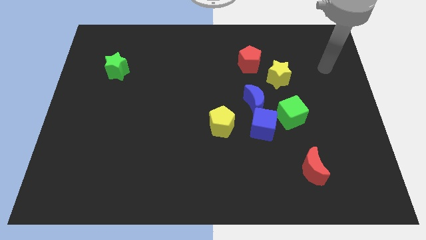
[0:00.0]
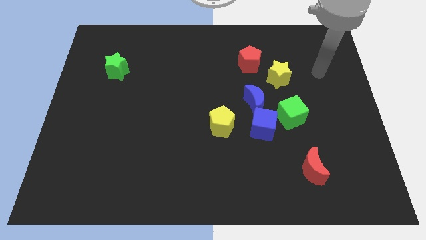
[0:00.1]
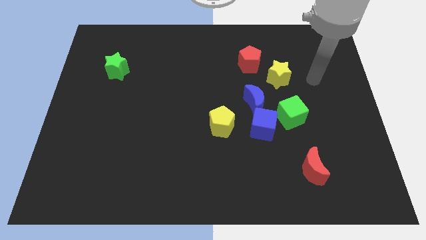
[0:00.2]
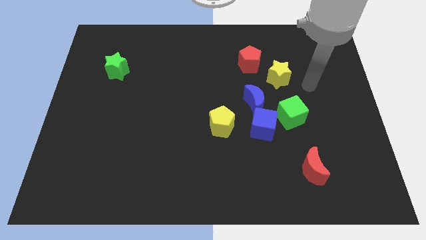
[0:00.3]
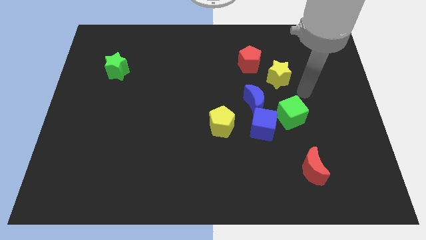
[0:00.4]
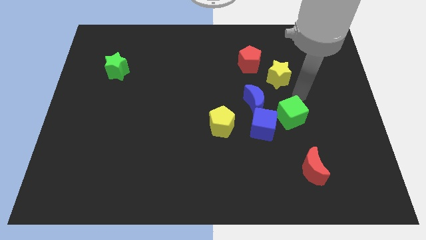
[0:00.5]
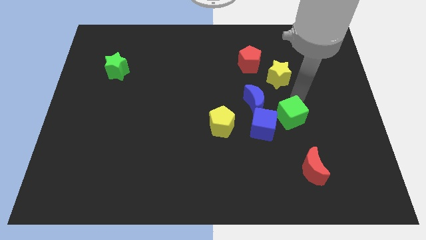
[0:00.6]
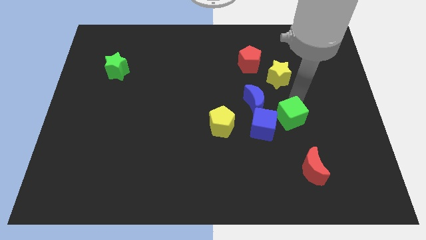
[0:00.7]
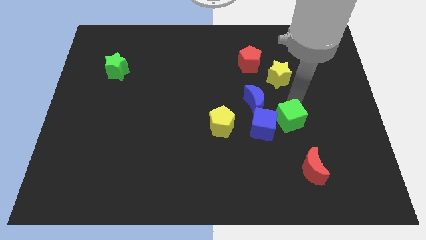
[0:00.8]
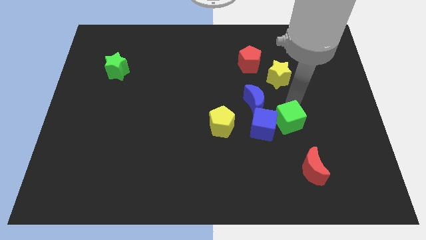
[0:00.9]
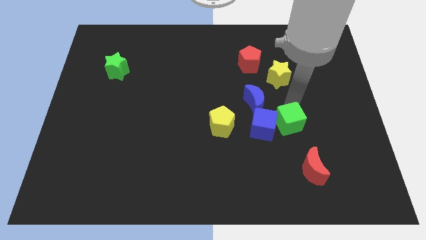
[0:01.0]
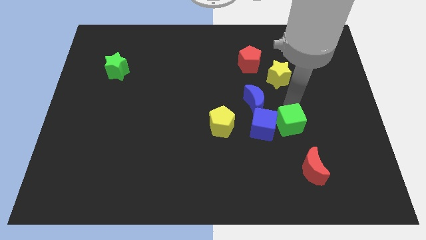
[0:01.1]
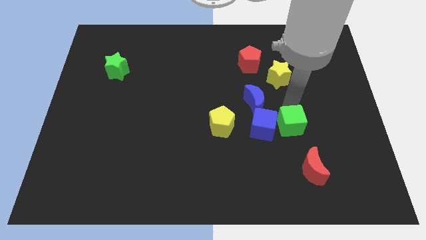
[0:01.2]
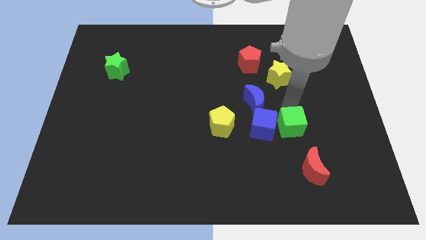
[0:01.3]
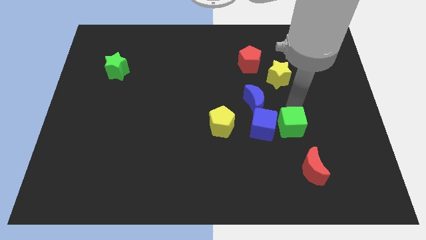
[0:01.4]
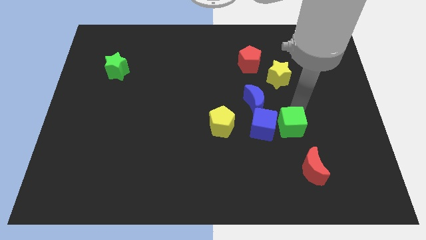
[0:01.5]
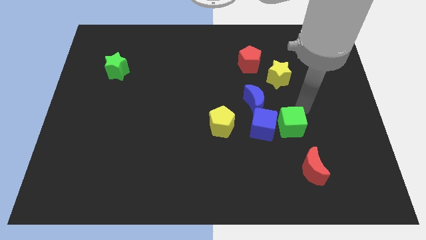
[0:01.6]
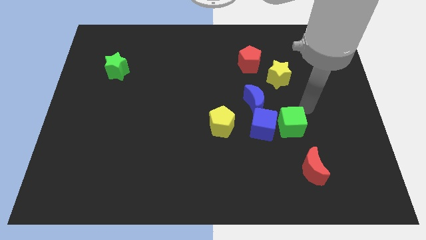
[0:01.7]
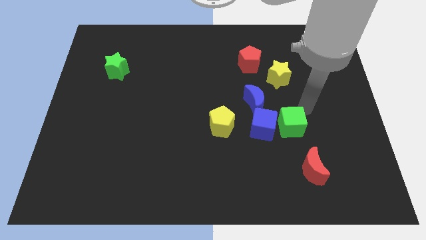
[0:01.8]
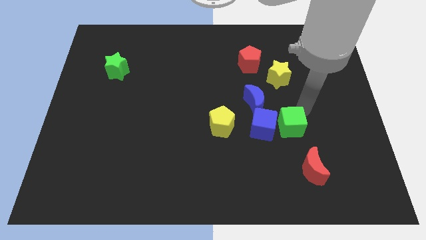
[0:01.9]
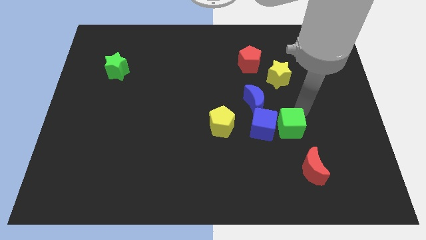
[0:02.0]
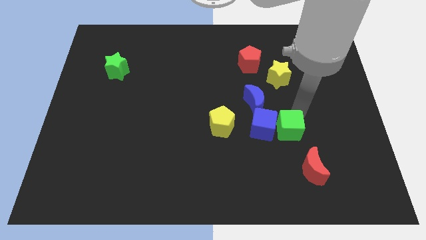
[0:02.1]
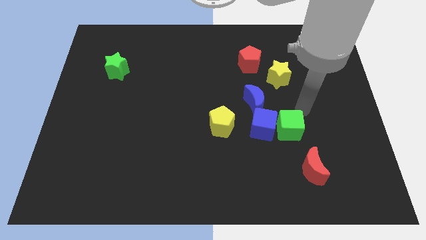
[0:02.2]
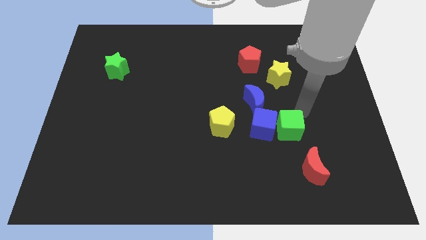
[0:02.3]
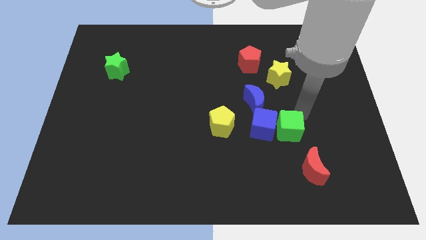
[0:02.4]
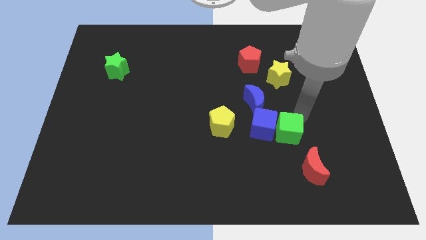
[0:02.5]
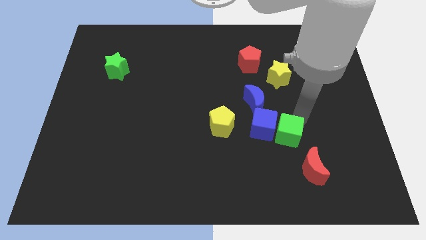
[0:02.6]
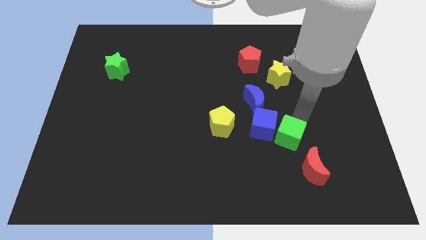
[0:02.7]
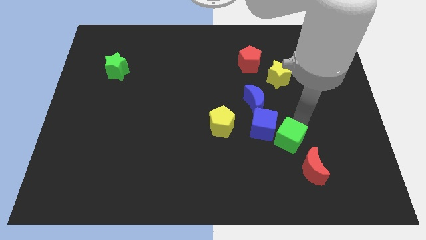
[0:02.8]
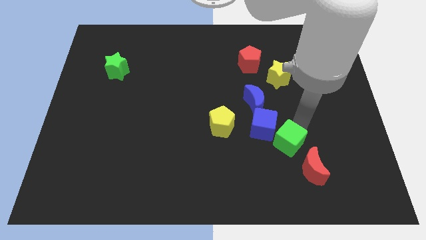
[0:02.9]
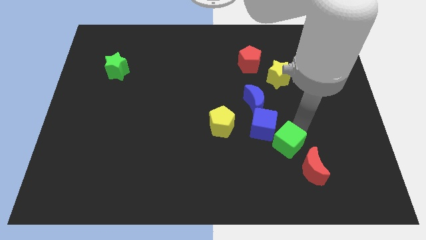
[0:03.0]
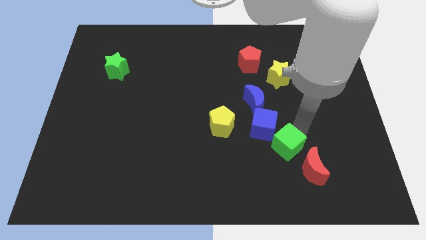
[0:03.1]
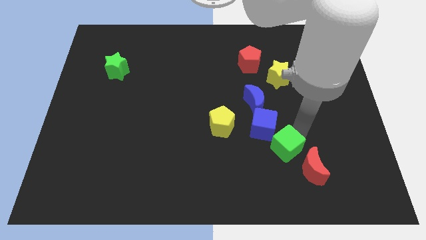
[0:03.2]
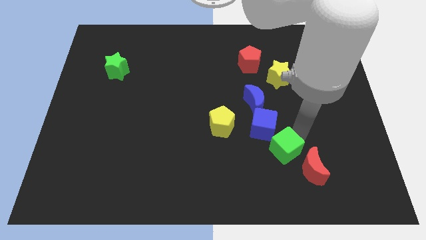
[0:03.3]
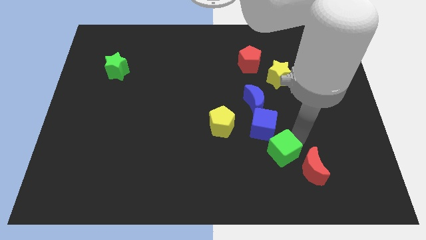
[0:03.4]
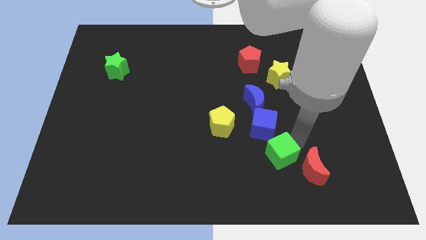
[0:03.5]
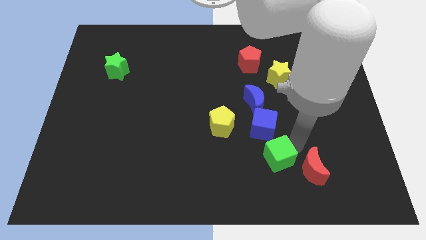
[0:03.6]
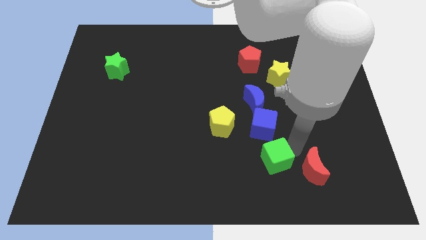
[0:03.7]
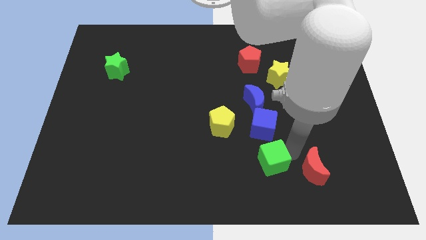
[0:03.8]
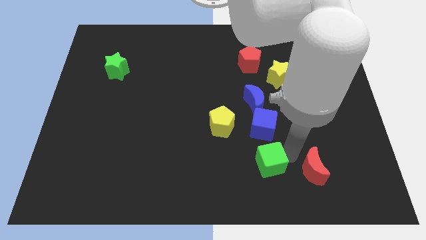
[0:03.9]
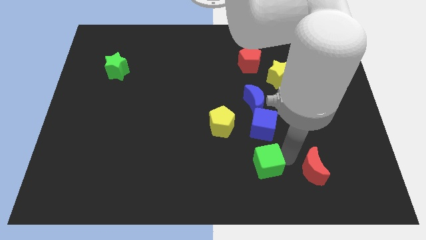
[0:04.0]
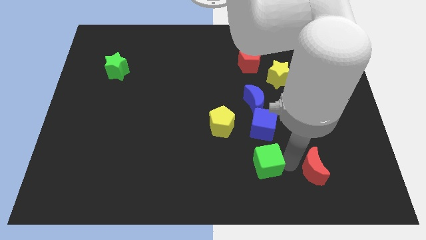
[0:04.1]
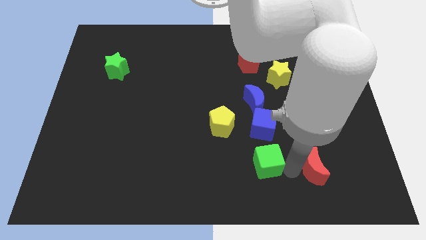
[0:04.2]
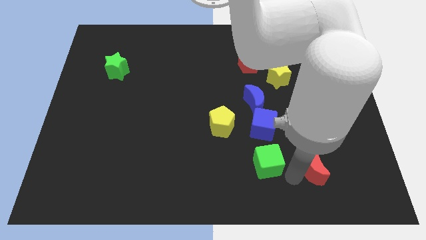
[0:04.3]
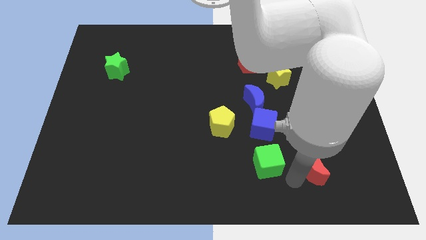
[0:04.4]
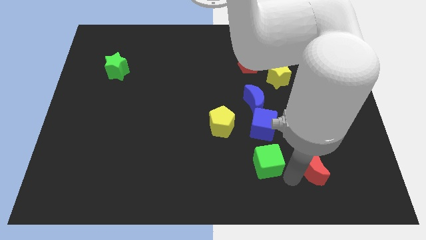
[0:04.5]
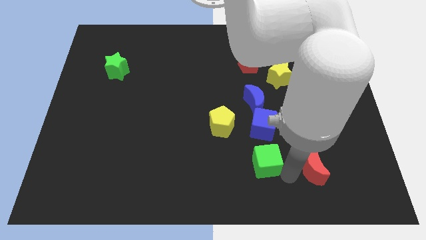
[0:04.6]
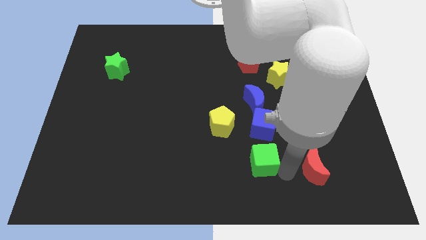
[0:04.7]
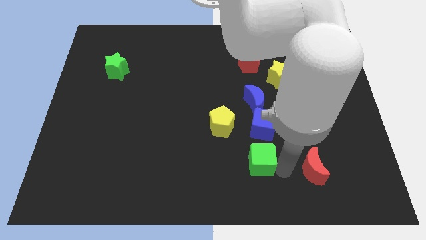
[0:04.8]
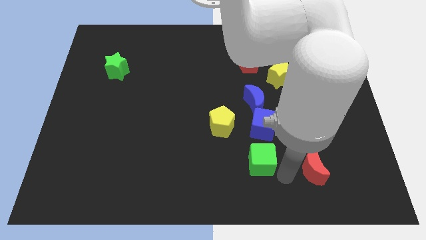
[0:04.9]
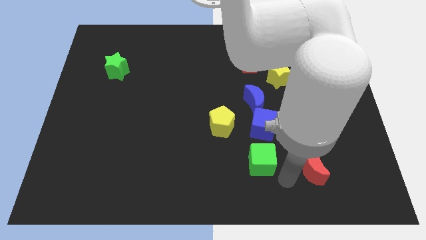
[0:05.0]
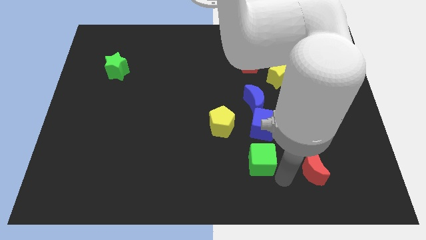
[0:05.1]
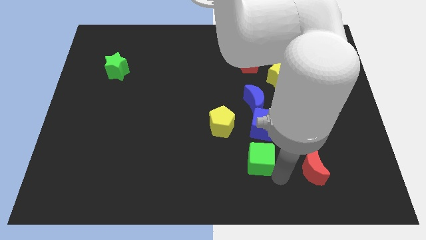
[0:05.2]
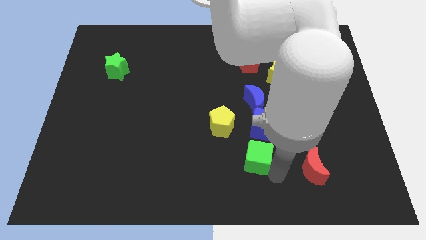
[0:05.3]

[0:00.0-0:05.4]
move the green cube to the bottom left side of the blue cube

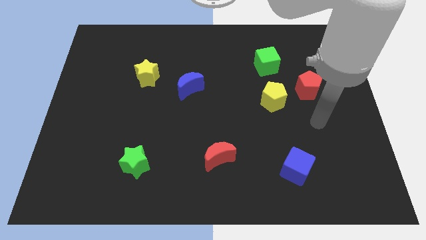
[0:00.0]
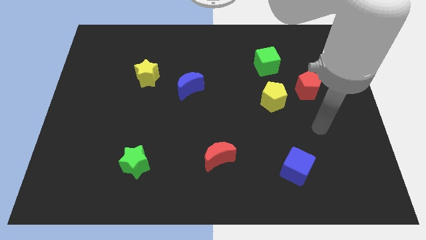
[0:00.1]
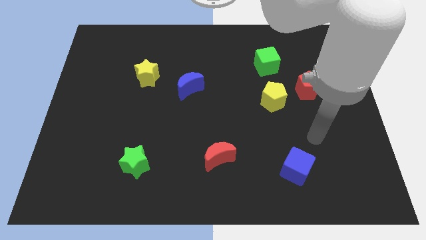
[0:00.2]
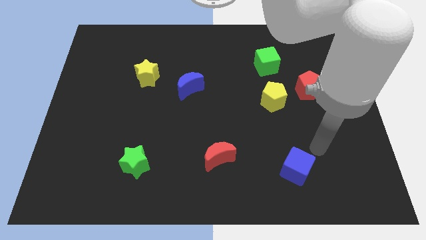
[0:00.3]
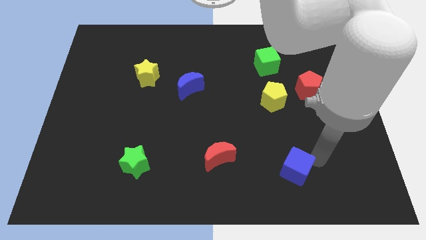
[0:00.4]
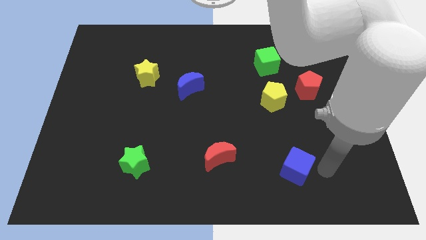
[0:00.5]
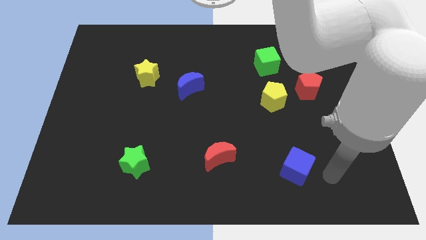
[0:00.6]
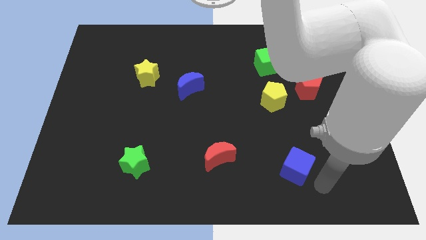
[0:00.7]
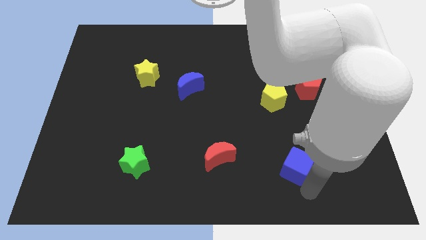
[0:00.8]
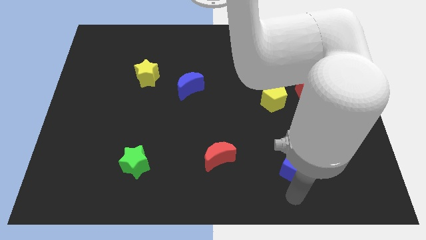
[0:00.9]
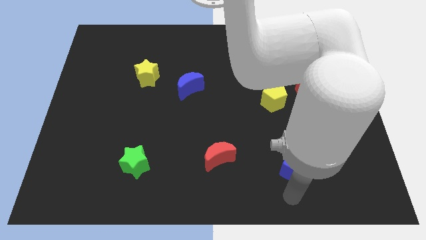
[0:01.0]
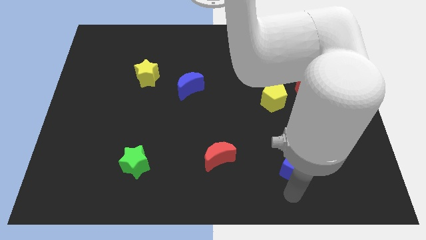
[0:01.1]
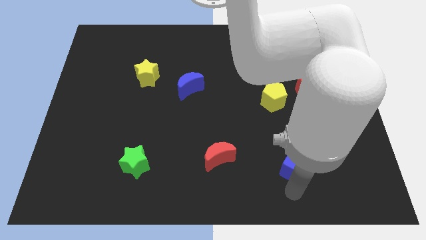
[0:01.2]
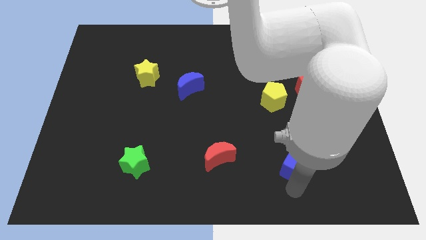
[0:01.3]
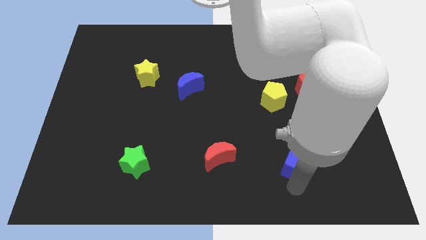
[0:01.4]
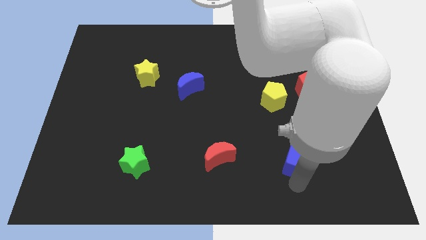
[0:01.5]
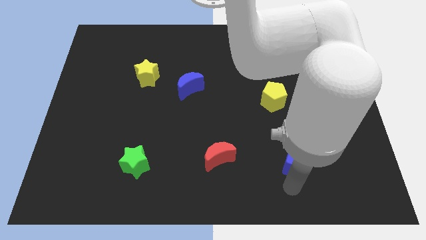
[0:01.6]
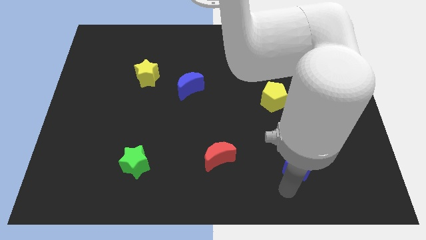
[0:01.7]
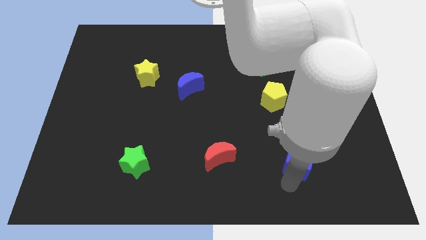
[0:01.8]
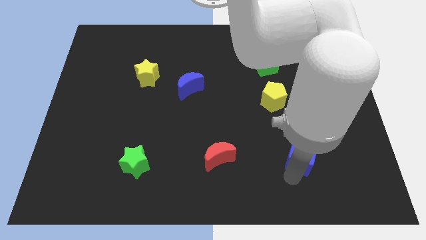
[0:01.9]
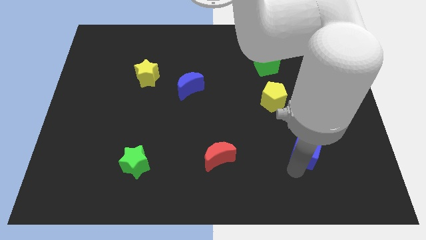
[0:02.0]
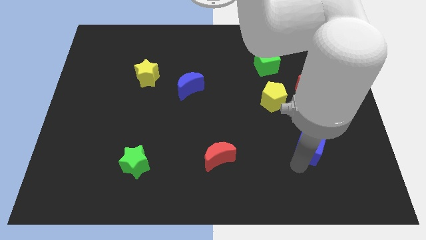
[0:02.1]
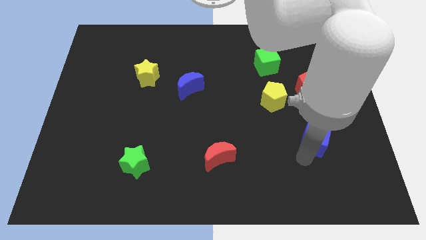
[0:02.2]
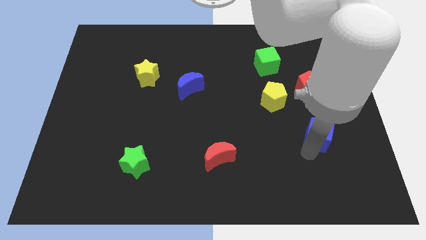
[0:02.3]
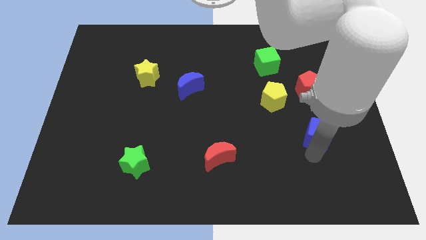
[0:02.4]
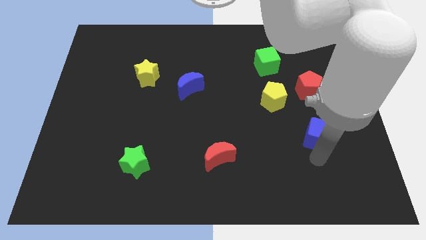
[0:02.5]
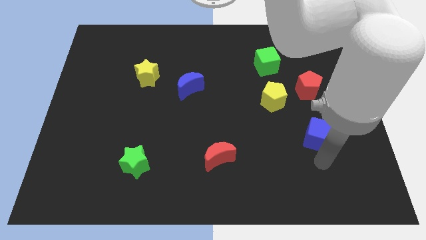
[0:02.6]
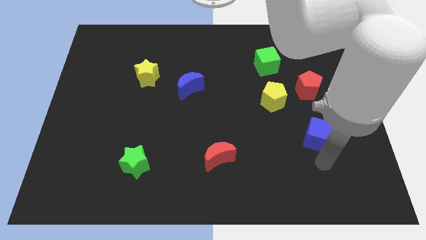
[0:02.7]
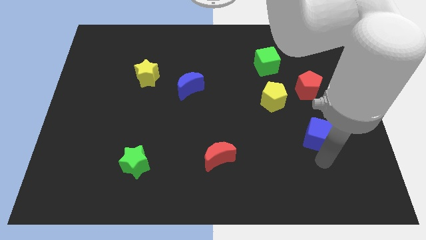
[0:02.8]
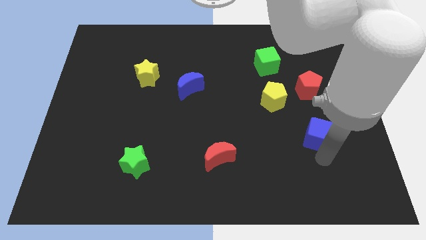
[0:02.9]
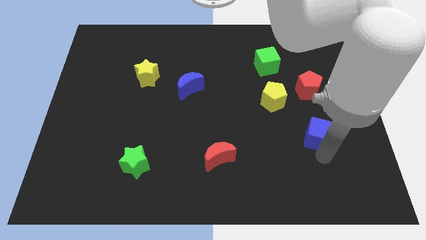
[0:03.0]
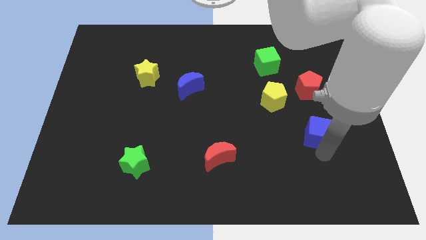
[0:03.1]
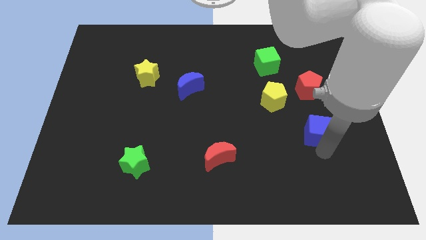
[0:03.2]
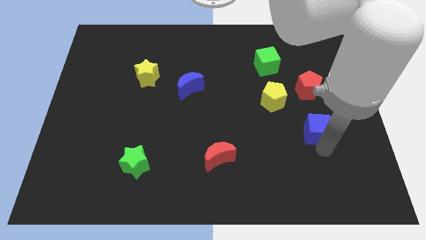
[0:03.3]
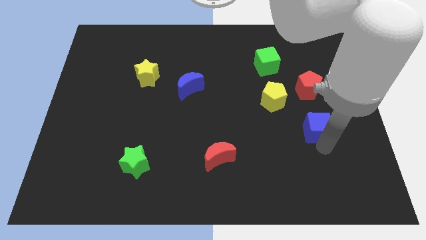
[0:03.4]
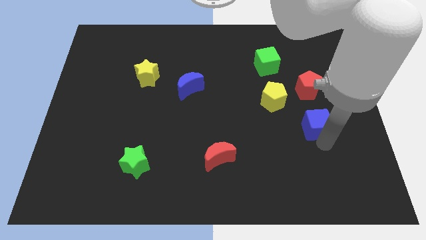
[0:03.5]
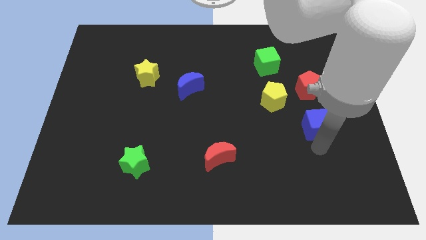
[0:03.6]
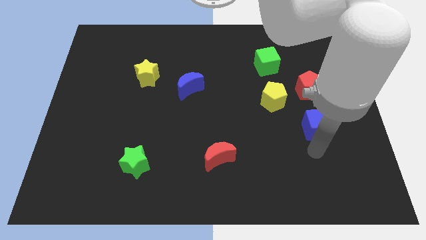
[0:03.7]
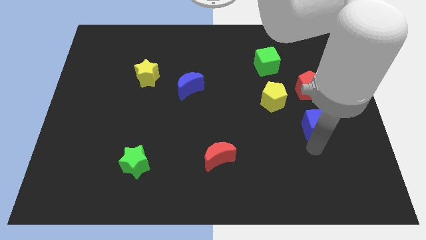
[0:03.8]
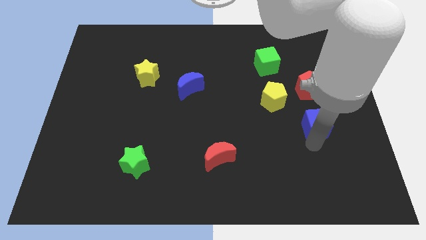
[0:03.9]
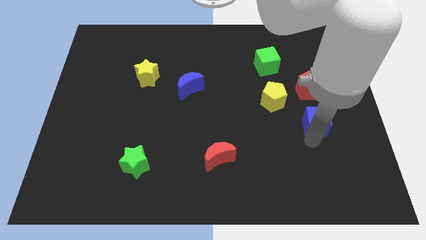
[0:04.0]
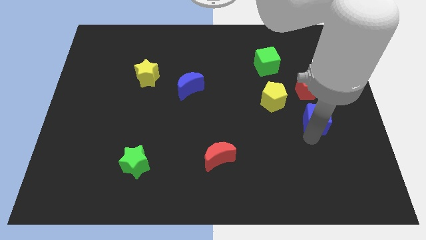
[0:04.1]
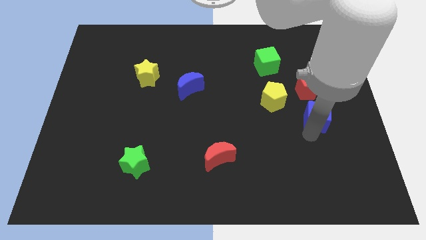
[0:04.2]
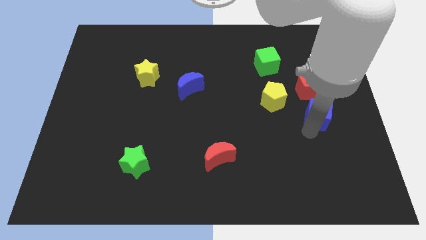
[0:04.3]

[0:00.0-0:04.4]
put the blue cube to the right side of the yellow pentagon
